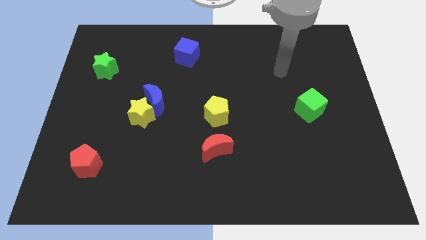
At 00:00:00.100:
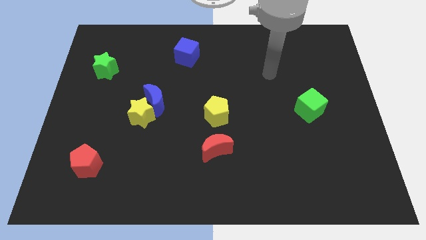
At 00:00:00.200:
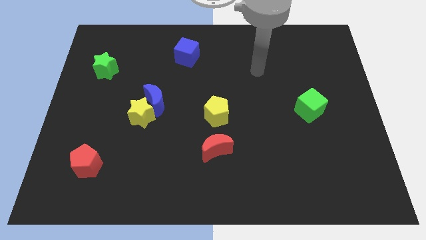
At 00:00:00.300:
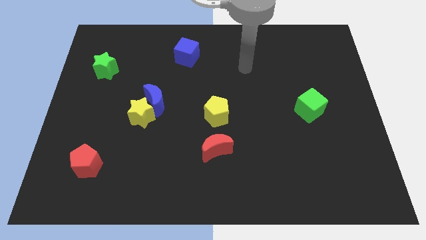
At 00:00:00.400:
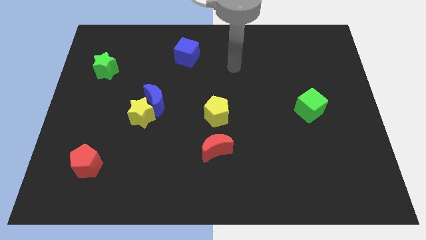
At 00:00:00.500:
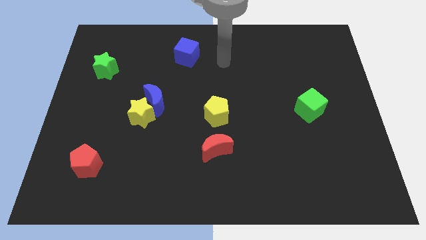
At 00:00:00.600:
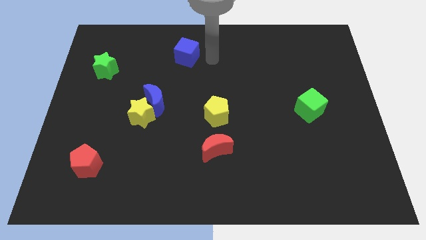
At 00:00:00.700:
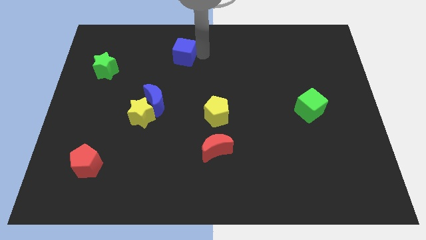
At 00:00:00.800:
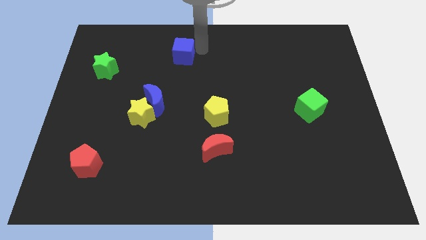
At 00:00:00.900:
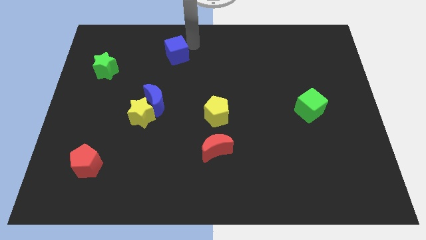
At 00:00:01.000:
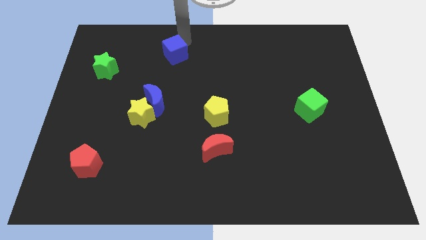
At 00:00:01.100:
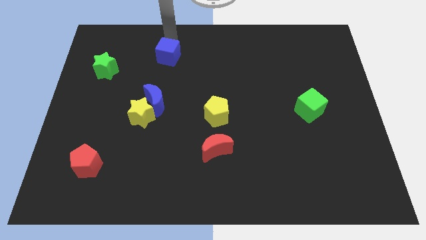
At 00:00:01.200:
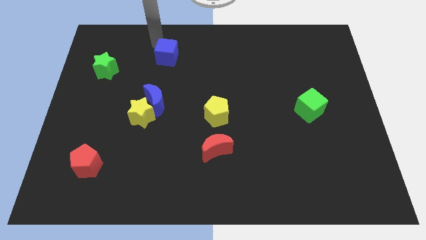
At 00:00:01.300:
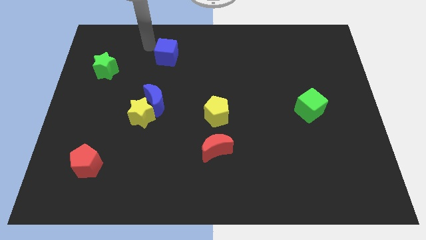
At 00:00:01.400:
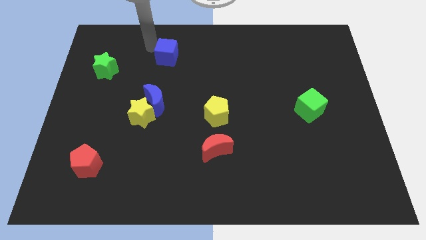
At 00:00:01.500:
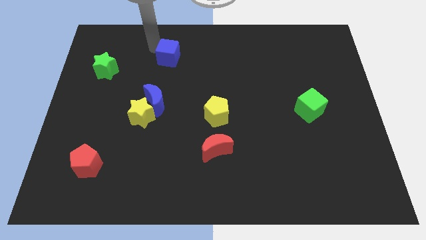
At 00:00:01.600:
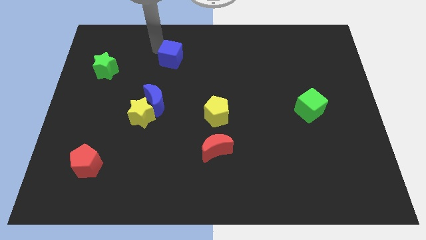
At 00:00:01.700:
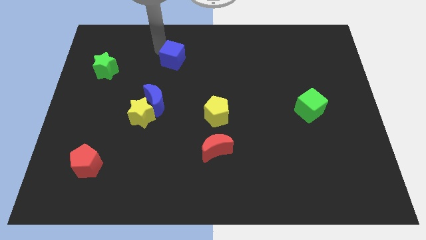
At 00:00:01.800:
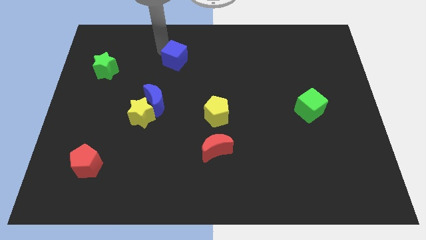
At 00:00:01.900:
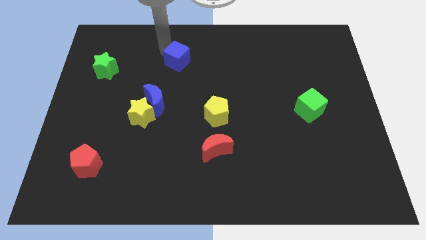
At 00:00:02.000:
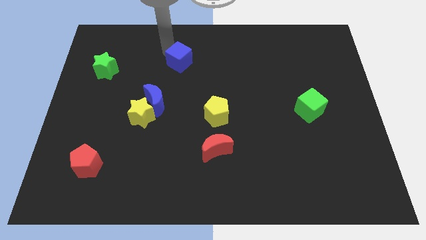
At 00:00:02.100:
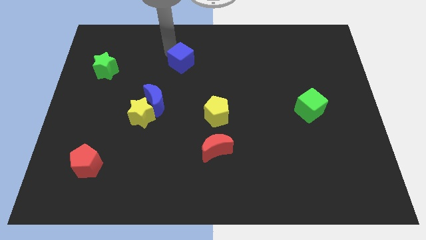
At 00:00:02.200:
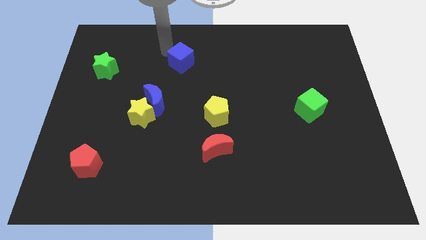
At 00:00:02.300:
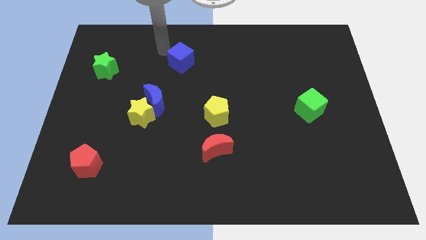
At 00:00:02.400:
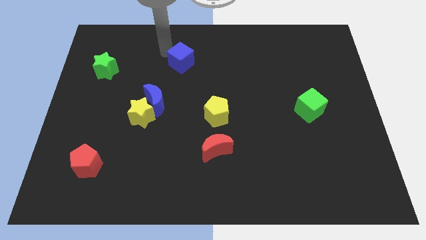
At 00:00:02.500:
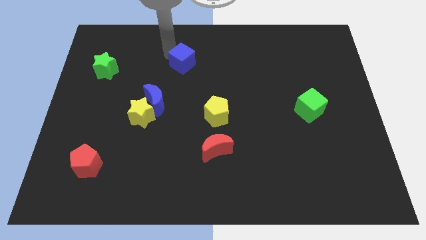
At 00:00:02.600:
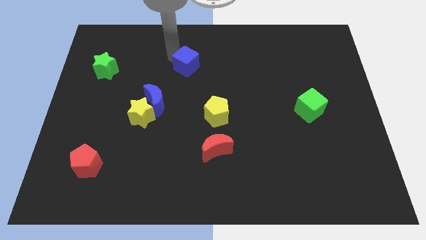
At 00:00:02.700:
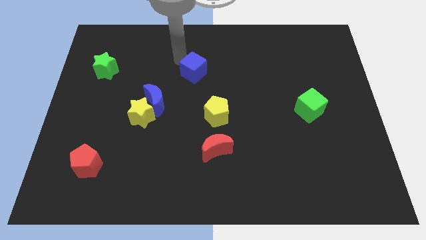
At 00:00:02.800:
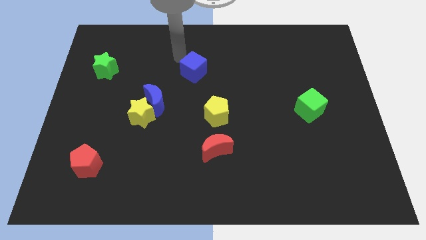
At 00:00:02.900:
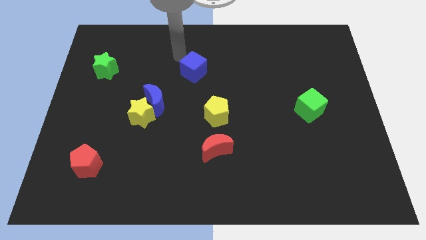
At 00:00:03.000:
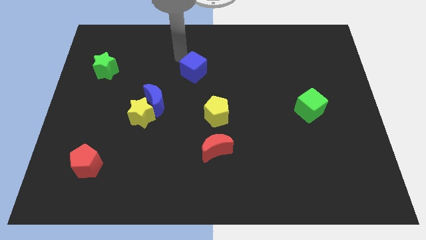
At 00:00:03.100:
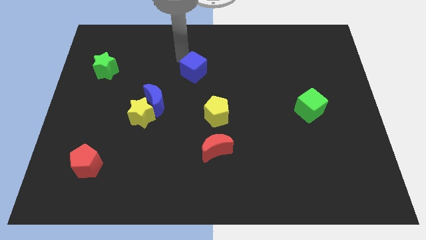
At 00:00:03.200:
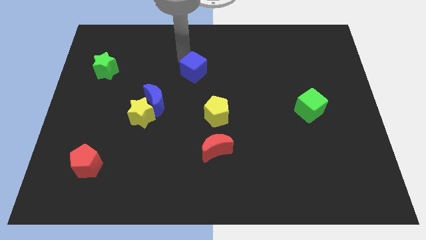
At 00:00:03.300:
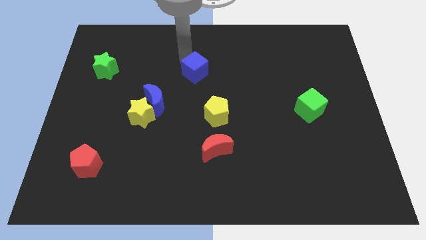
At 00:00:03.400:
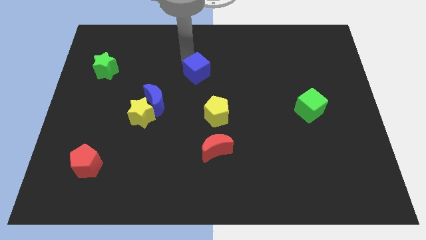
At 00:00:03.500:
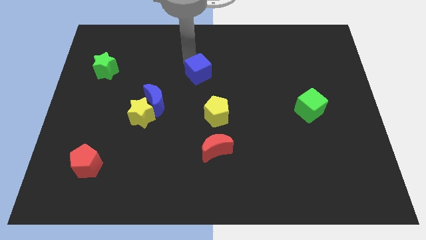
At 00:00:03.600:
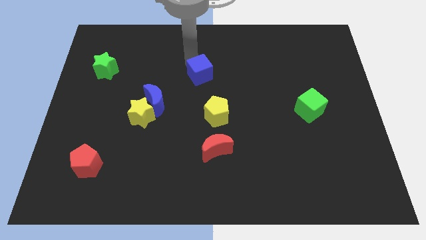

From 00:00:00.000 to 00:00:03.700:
slightly push the blue cube diagonally down and right

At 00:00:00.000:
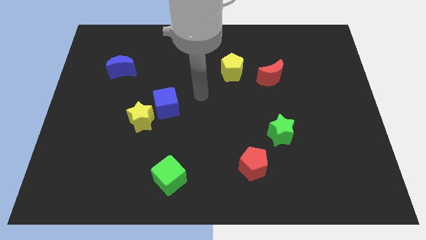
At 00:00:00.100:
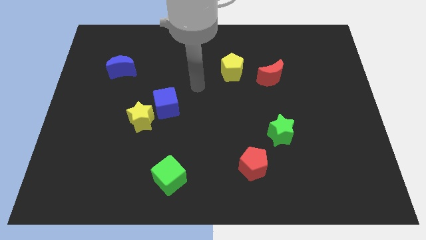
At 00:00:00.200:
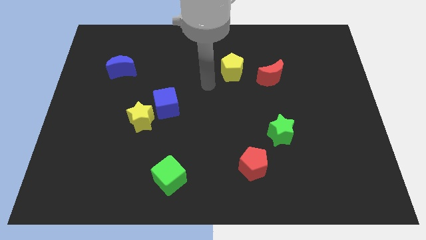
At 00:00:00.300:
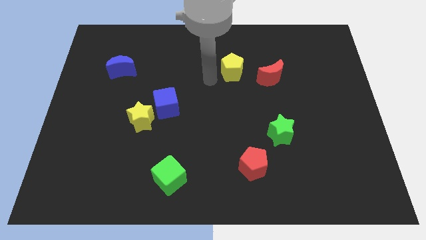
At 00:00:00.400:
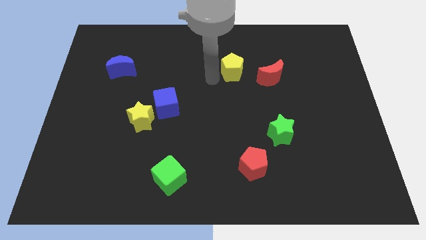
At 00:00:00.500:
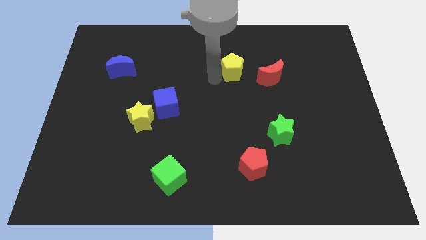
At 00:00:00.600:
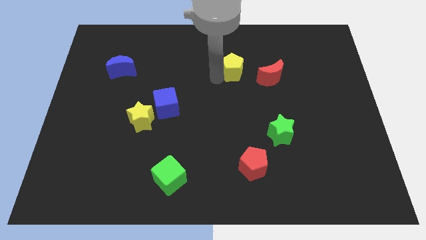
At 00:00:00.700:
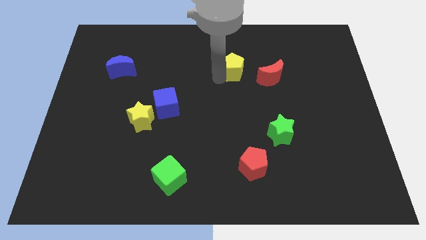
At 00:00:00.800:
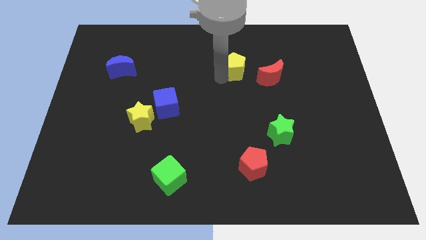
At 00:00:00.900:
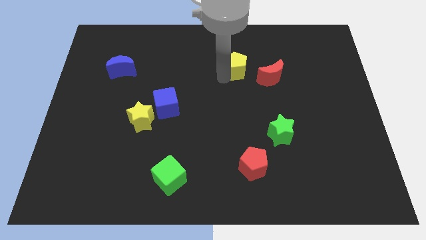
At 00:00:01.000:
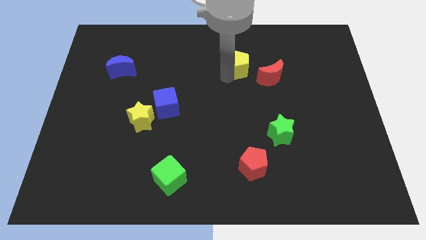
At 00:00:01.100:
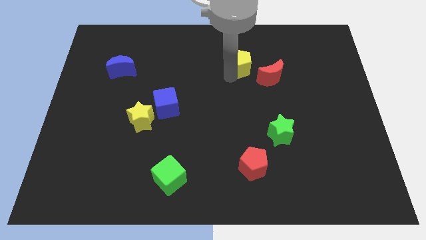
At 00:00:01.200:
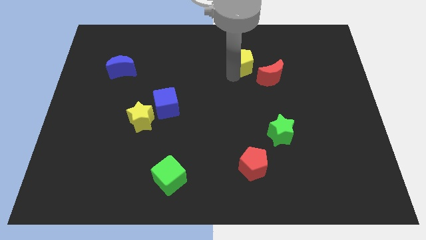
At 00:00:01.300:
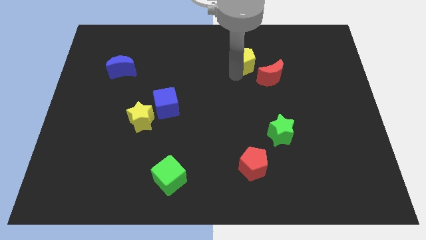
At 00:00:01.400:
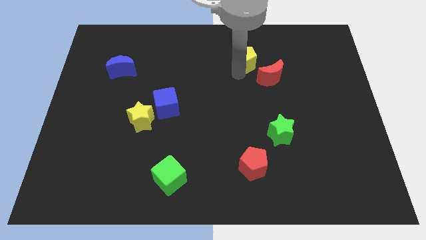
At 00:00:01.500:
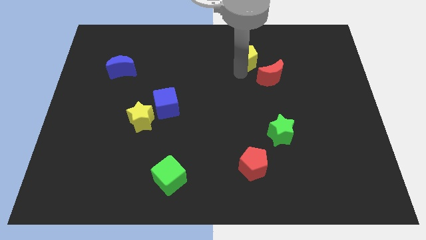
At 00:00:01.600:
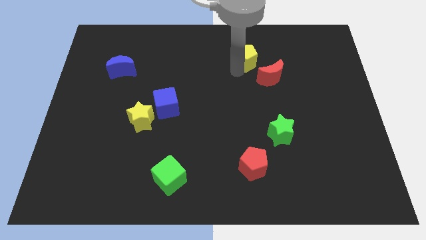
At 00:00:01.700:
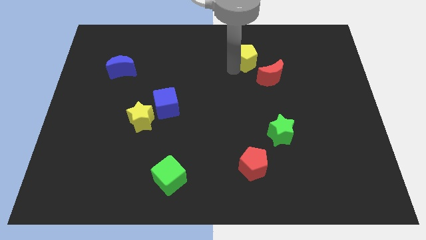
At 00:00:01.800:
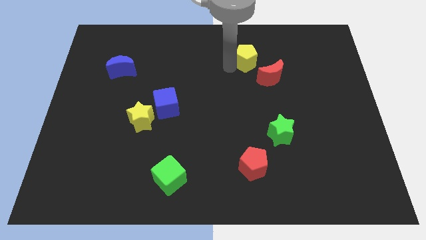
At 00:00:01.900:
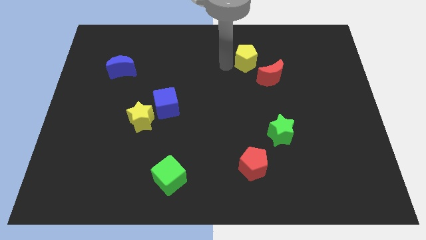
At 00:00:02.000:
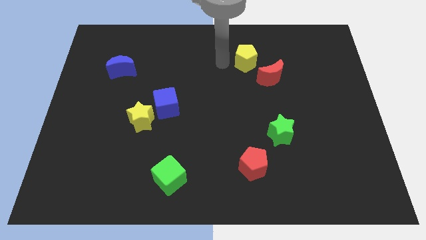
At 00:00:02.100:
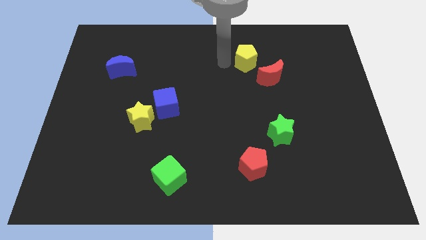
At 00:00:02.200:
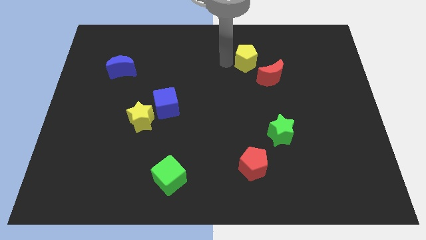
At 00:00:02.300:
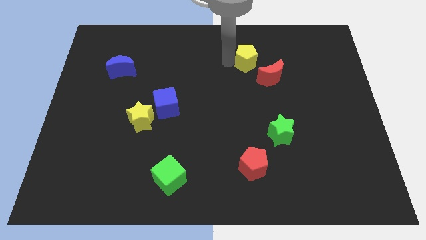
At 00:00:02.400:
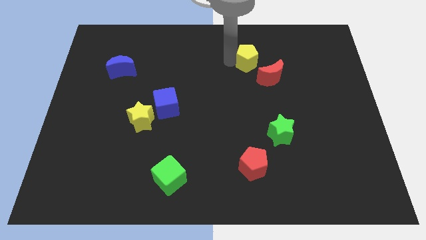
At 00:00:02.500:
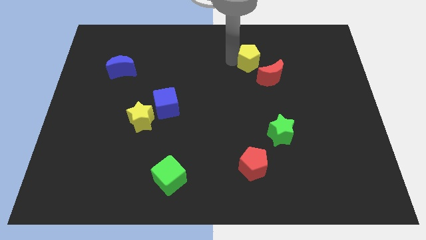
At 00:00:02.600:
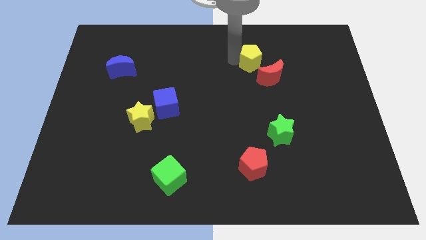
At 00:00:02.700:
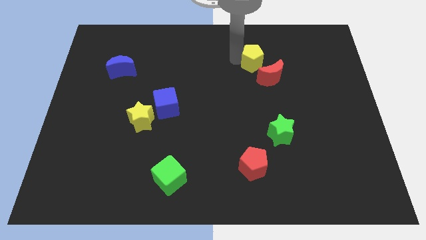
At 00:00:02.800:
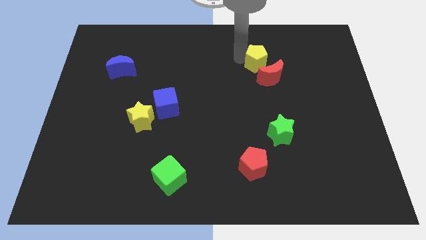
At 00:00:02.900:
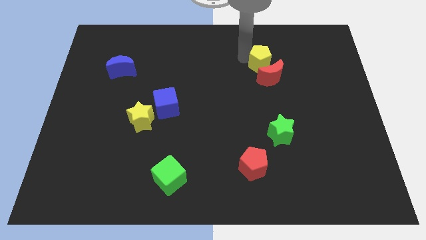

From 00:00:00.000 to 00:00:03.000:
push the yellow pentagon a bit to the right

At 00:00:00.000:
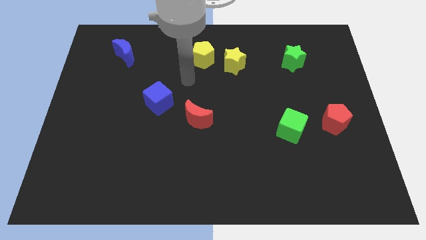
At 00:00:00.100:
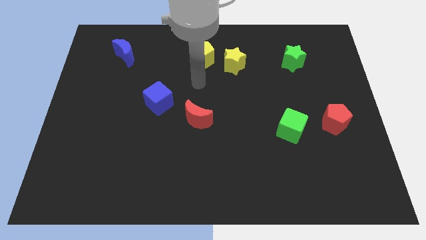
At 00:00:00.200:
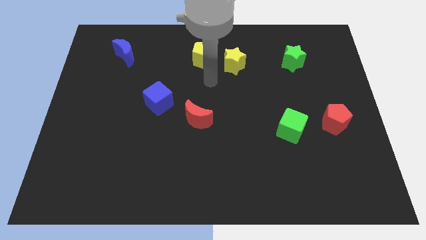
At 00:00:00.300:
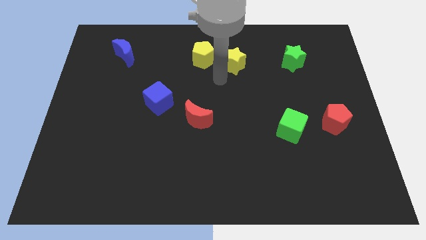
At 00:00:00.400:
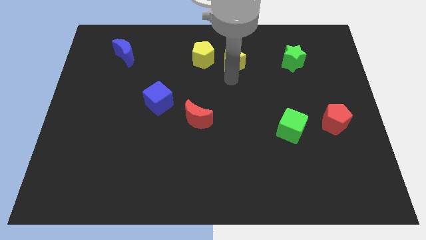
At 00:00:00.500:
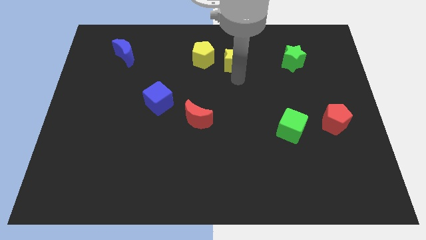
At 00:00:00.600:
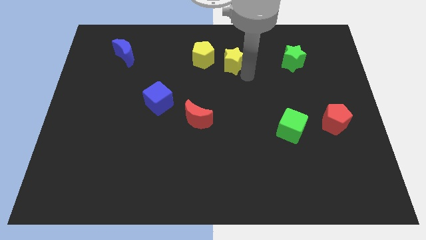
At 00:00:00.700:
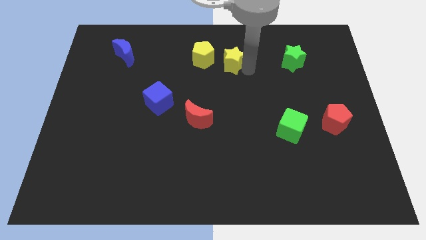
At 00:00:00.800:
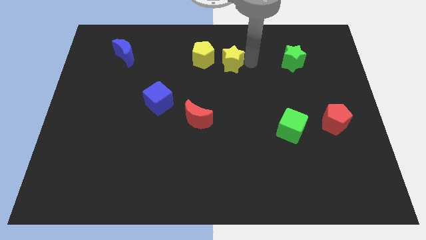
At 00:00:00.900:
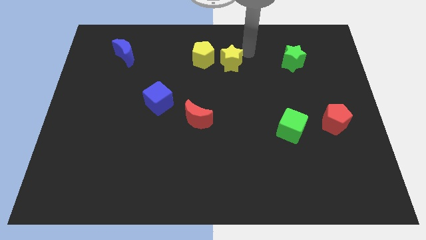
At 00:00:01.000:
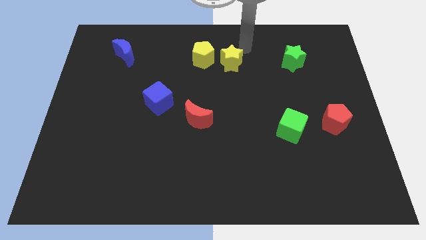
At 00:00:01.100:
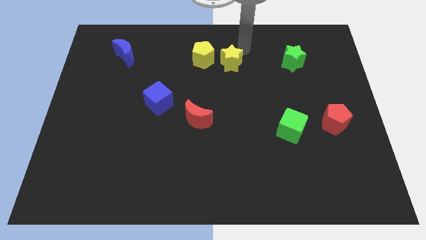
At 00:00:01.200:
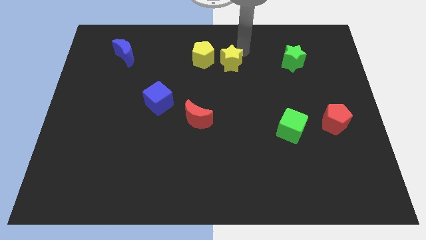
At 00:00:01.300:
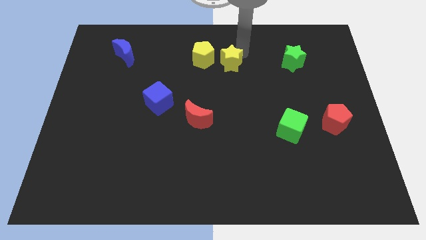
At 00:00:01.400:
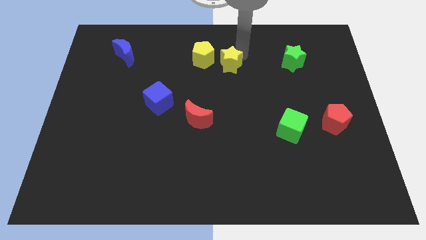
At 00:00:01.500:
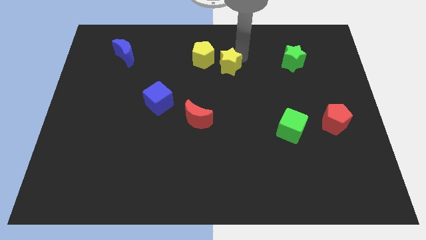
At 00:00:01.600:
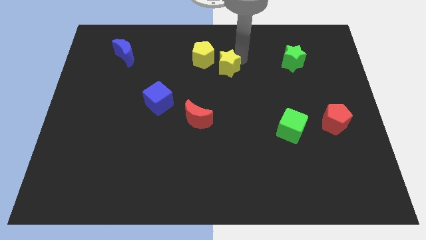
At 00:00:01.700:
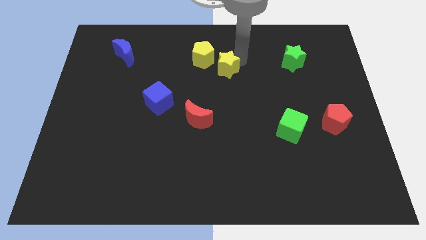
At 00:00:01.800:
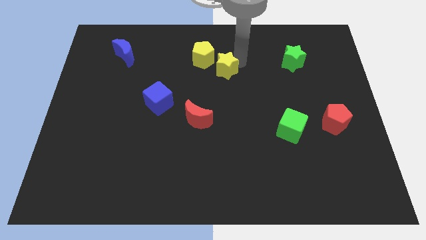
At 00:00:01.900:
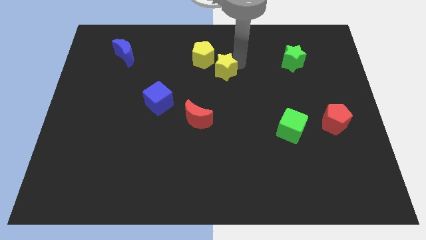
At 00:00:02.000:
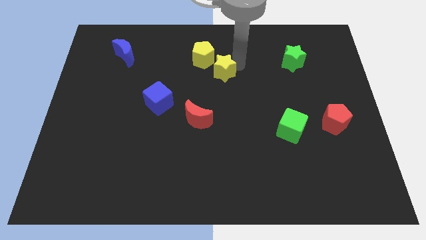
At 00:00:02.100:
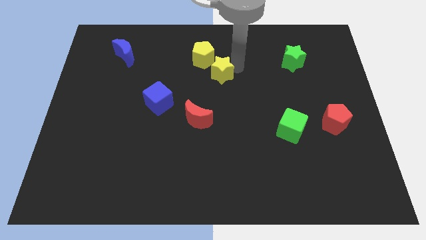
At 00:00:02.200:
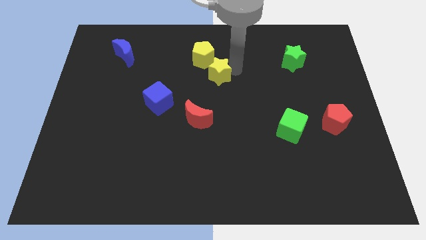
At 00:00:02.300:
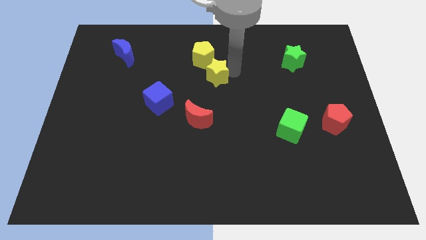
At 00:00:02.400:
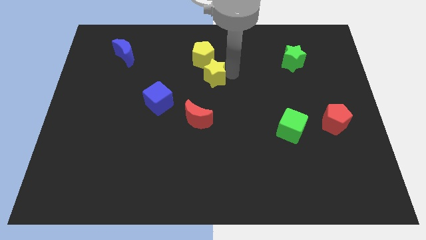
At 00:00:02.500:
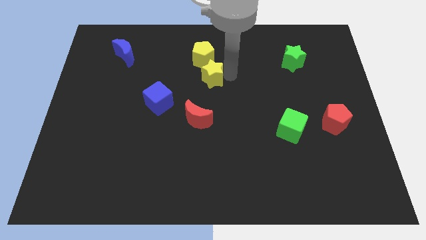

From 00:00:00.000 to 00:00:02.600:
slide the yellow star downwards and left diagonally a little
